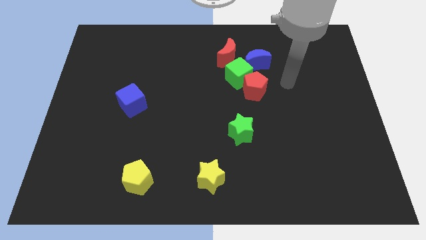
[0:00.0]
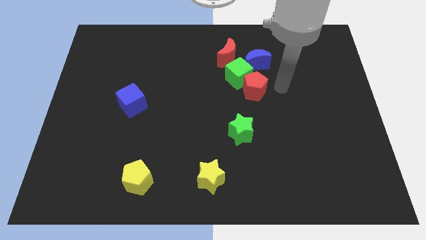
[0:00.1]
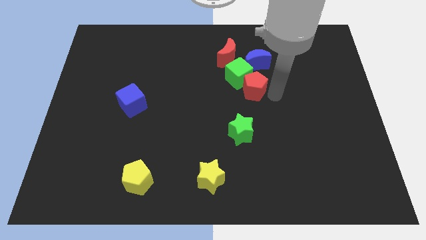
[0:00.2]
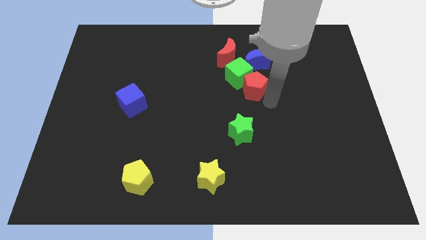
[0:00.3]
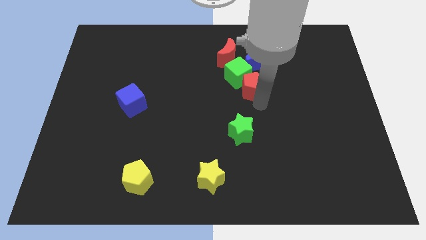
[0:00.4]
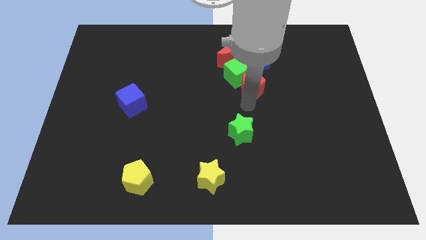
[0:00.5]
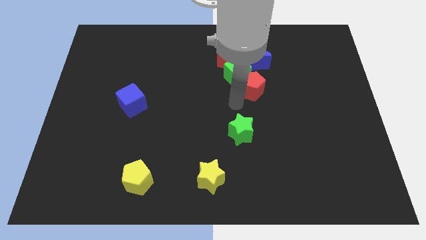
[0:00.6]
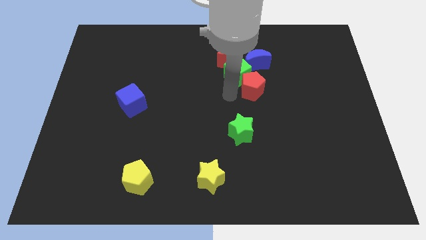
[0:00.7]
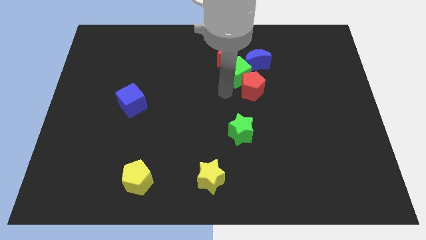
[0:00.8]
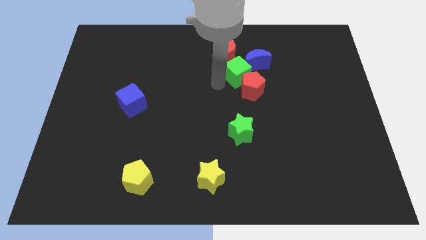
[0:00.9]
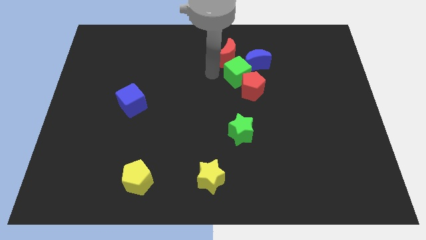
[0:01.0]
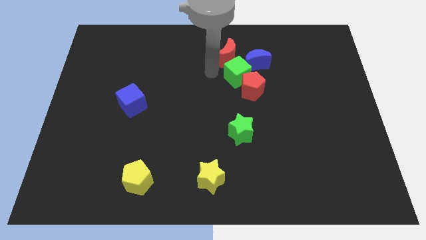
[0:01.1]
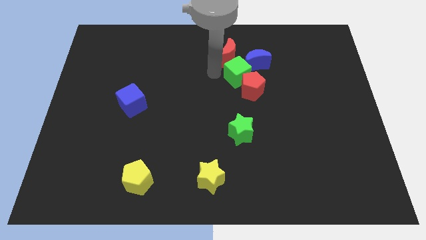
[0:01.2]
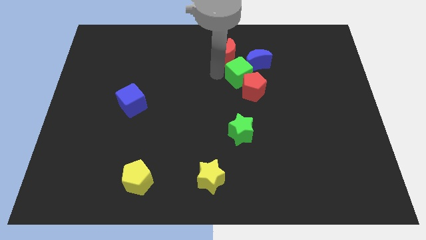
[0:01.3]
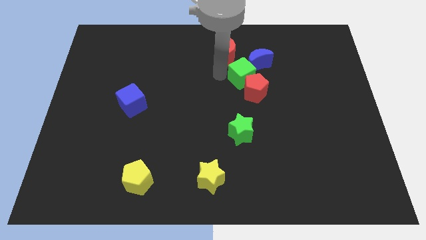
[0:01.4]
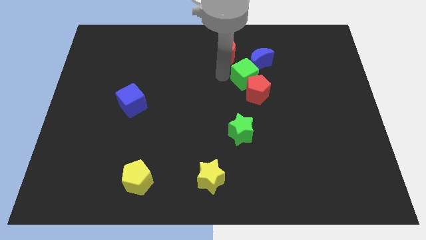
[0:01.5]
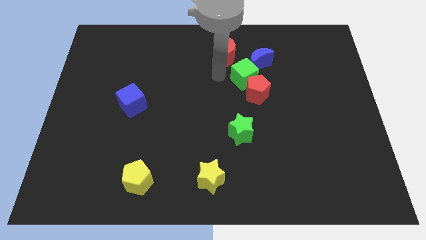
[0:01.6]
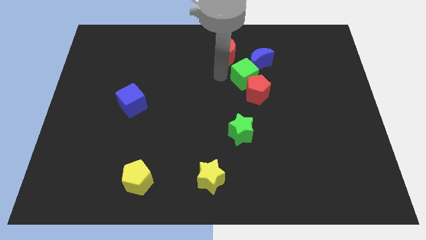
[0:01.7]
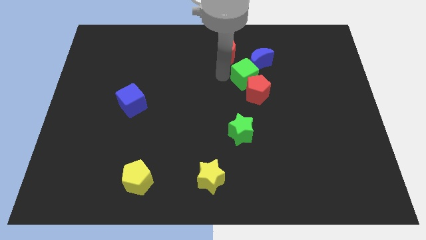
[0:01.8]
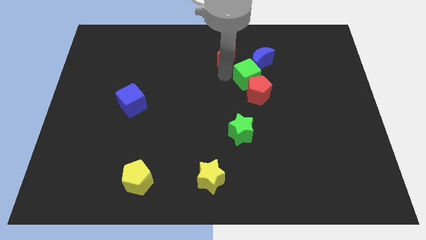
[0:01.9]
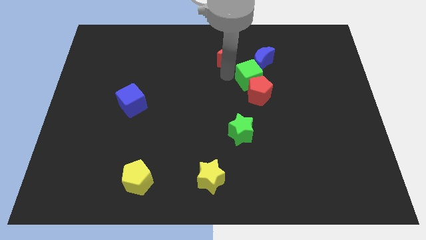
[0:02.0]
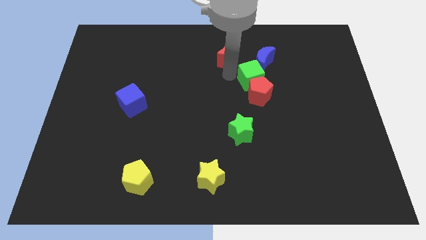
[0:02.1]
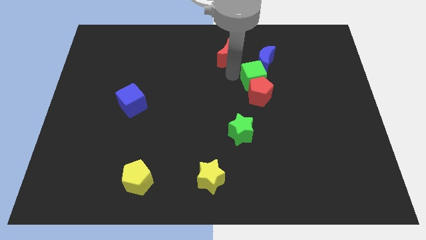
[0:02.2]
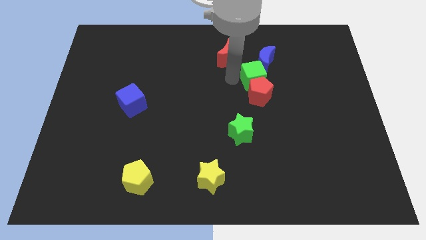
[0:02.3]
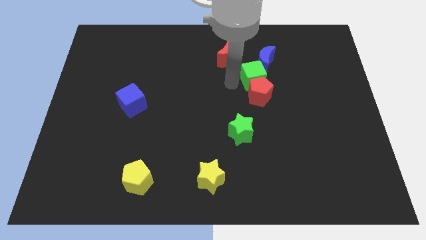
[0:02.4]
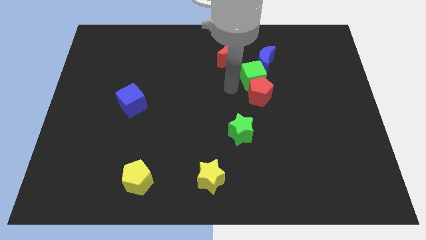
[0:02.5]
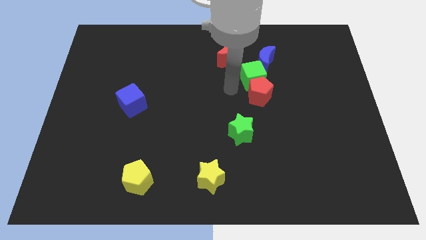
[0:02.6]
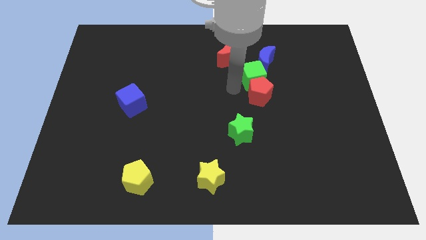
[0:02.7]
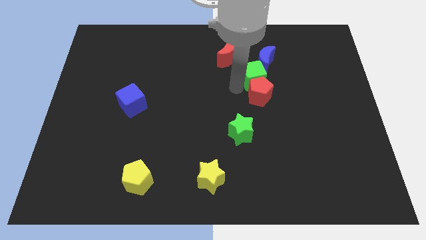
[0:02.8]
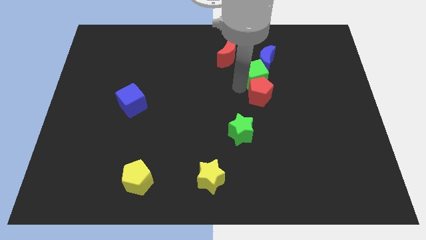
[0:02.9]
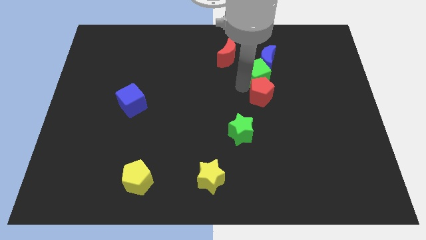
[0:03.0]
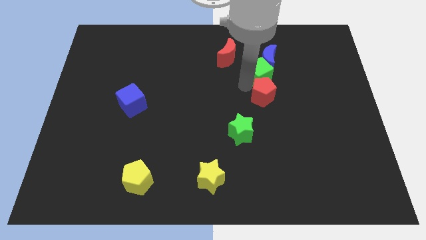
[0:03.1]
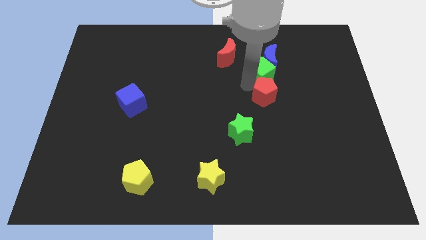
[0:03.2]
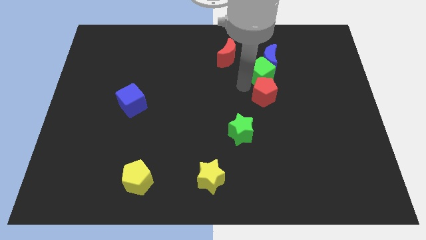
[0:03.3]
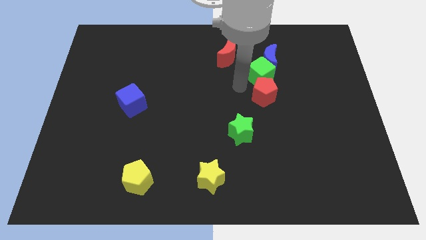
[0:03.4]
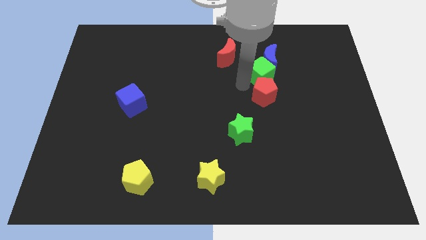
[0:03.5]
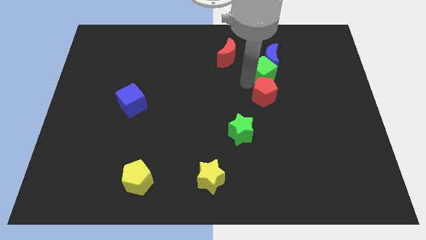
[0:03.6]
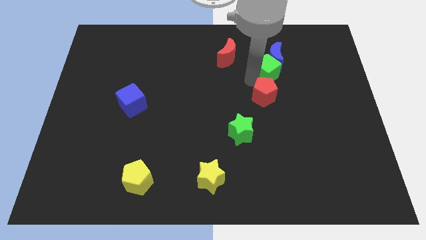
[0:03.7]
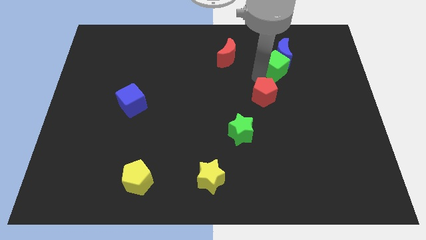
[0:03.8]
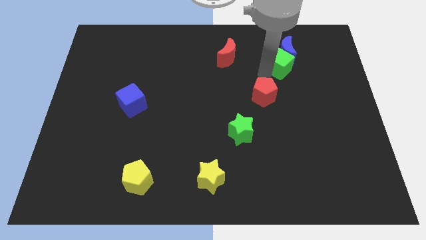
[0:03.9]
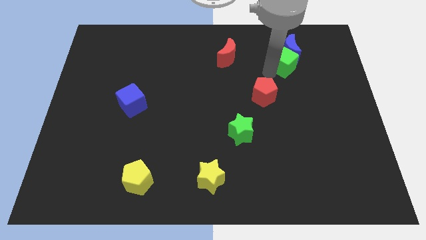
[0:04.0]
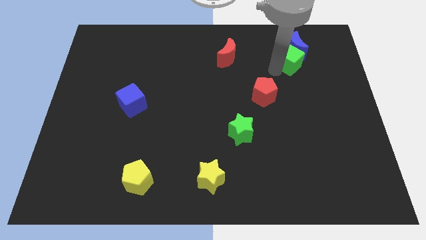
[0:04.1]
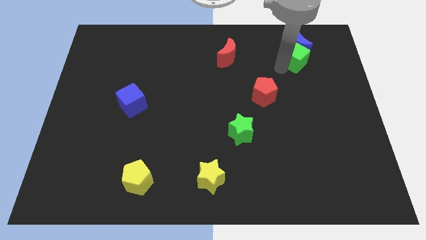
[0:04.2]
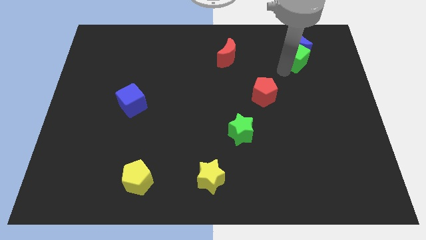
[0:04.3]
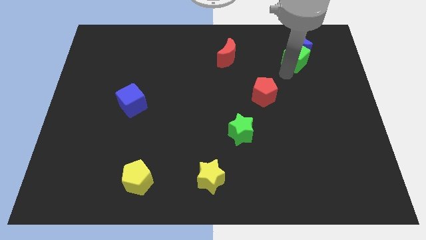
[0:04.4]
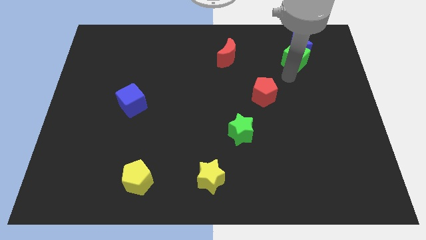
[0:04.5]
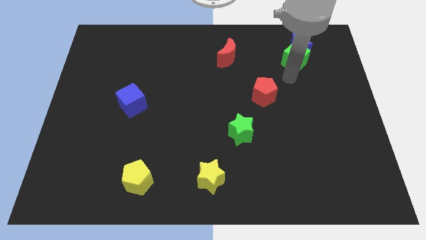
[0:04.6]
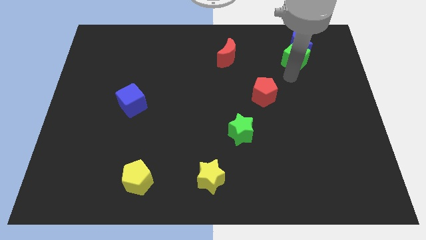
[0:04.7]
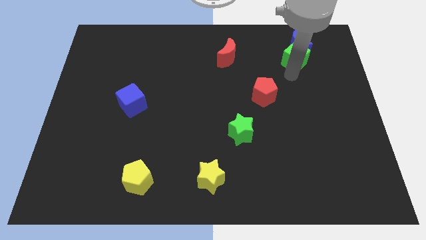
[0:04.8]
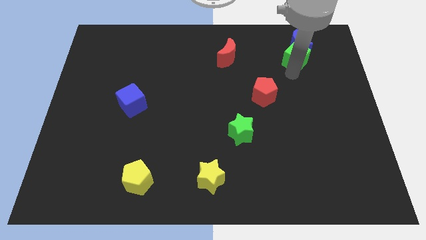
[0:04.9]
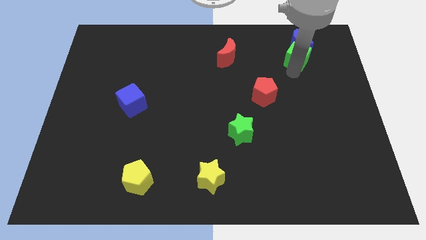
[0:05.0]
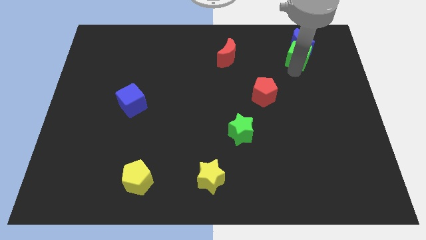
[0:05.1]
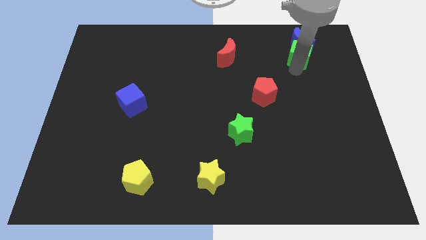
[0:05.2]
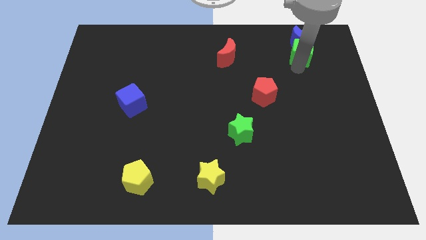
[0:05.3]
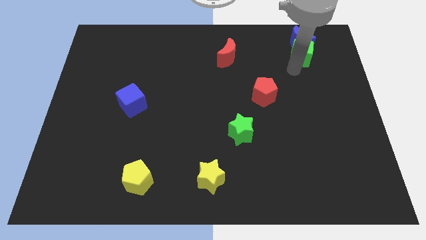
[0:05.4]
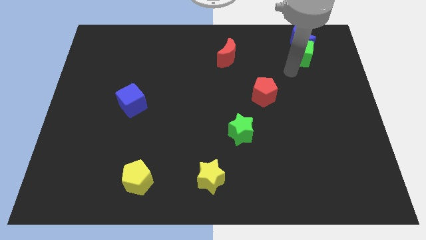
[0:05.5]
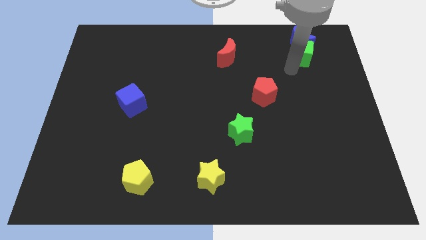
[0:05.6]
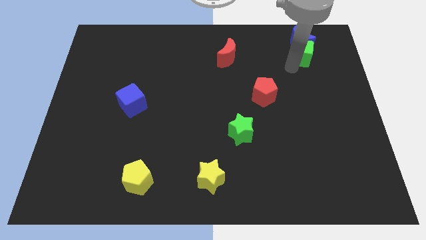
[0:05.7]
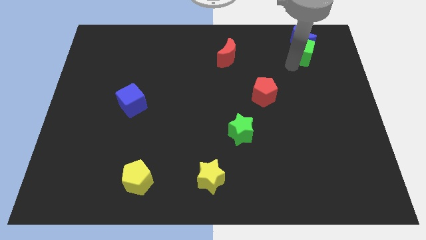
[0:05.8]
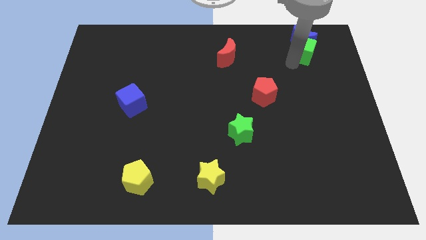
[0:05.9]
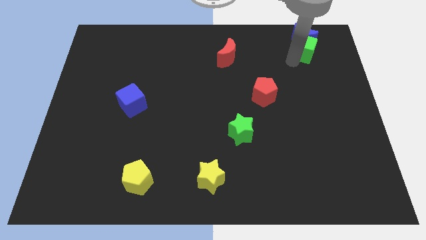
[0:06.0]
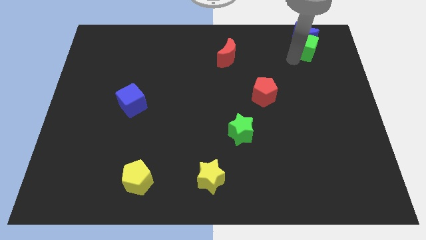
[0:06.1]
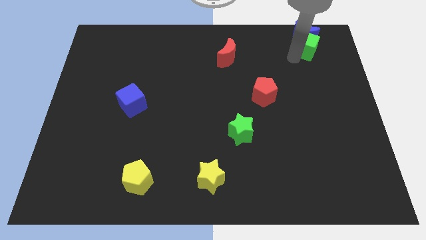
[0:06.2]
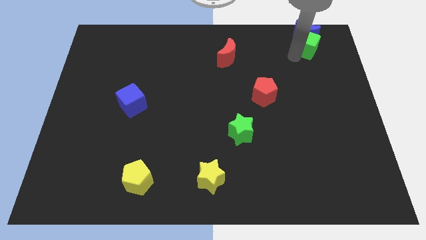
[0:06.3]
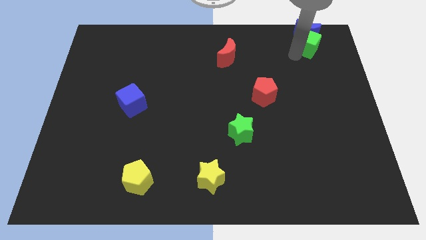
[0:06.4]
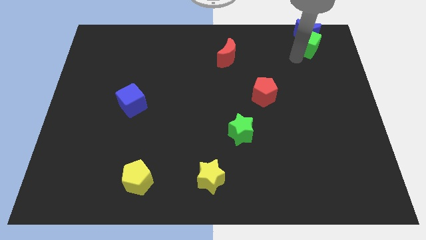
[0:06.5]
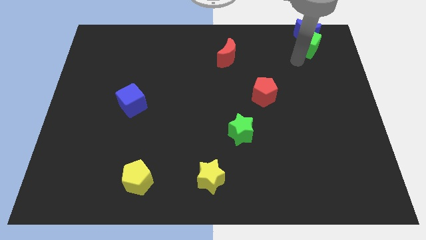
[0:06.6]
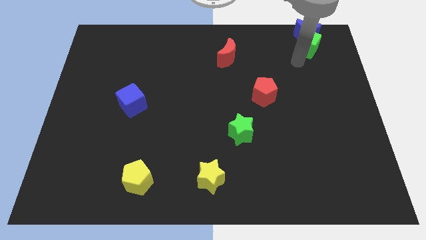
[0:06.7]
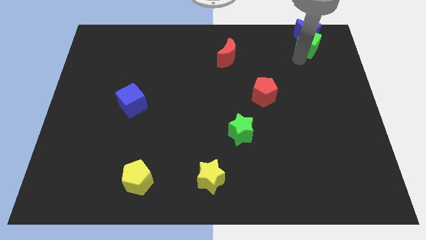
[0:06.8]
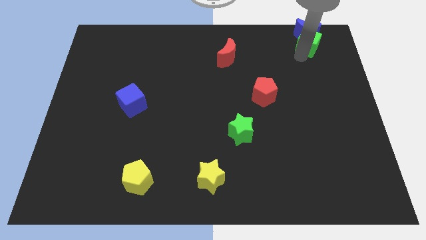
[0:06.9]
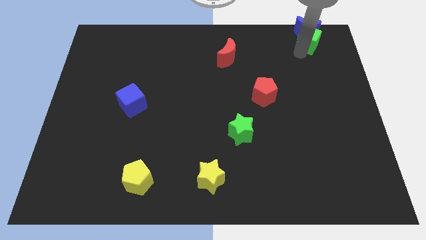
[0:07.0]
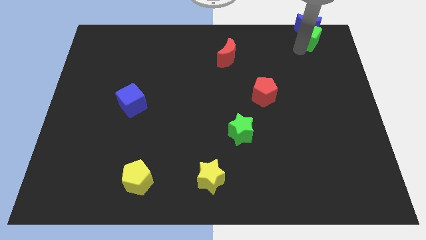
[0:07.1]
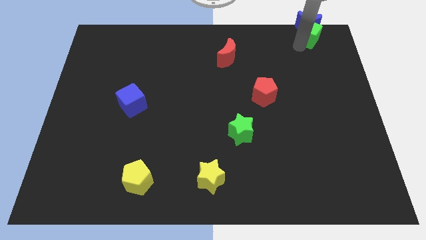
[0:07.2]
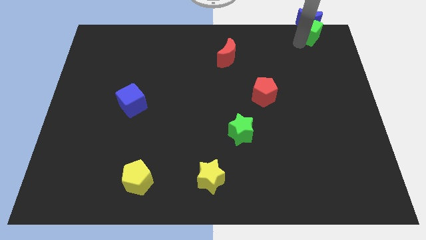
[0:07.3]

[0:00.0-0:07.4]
slide the green cube to the top right of the board
